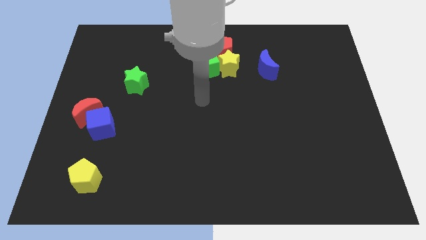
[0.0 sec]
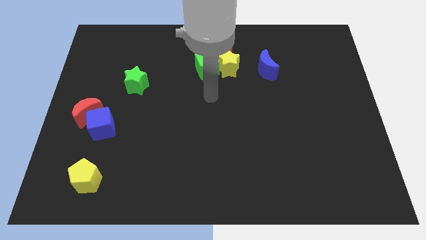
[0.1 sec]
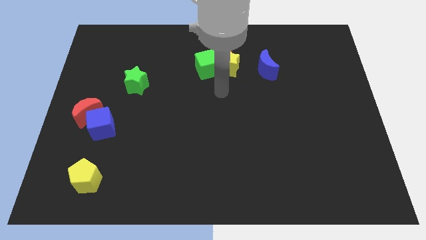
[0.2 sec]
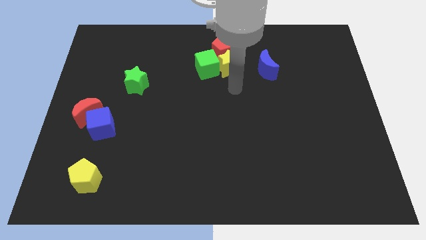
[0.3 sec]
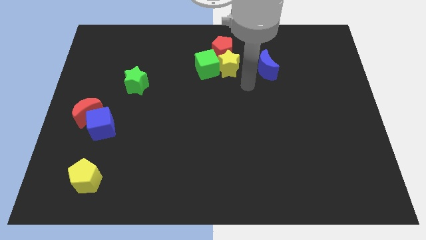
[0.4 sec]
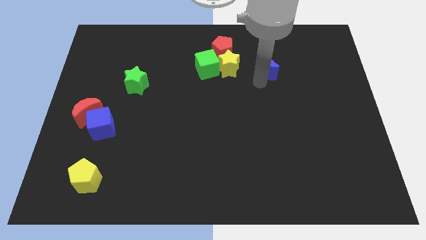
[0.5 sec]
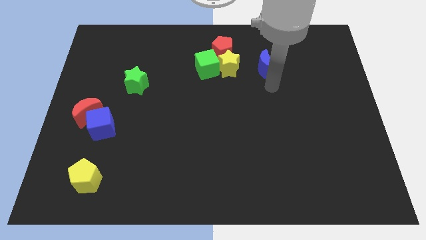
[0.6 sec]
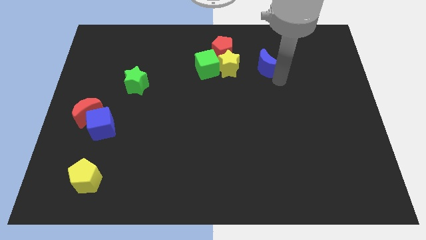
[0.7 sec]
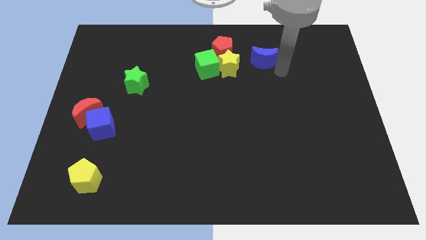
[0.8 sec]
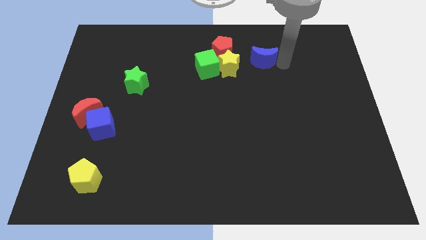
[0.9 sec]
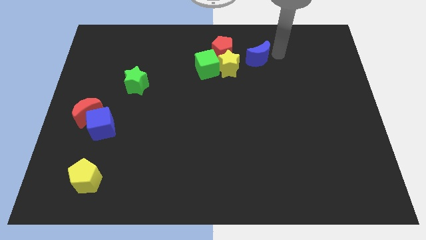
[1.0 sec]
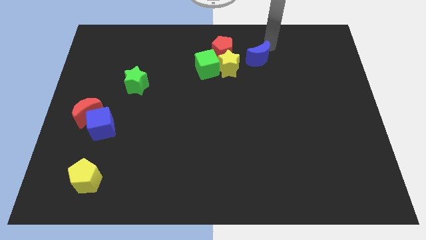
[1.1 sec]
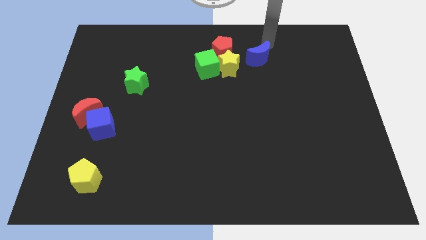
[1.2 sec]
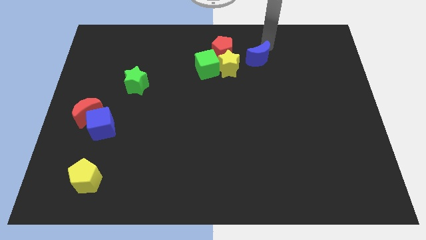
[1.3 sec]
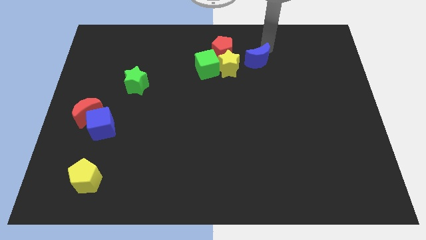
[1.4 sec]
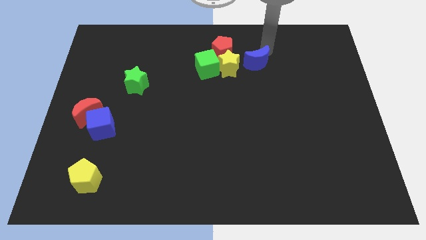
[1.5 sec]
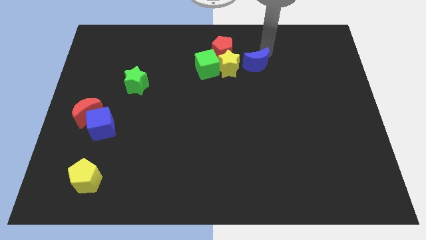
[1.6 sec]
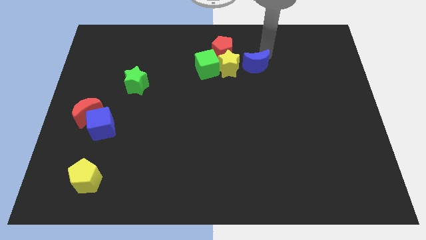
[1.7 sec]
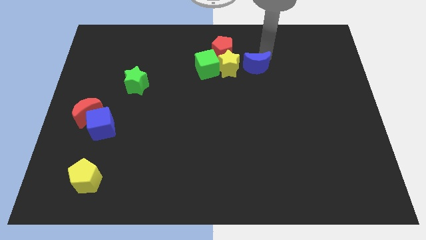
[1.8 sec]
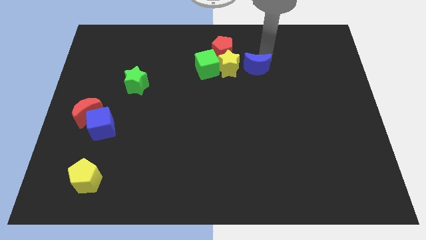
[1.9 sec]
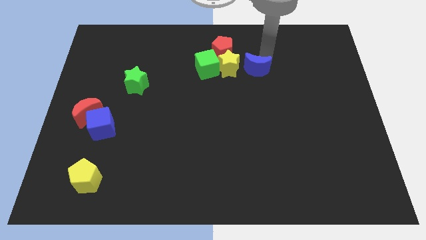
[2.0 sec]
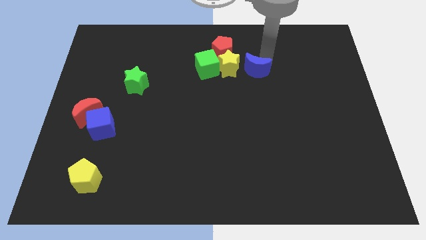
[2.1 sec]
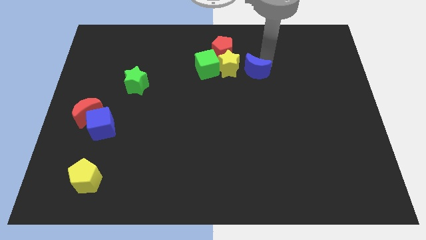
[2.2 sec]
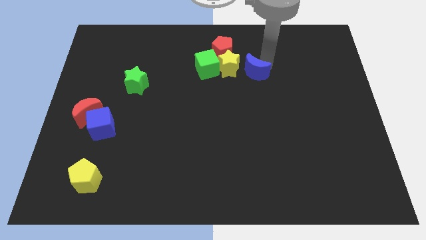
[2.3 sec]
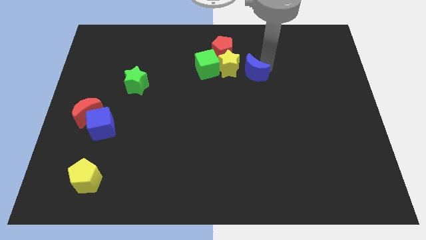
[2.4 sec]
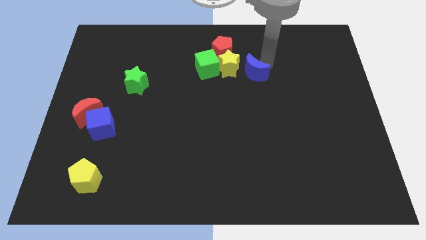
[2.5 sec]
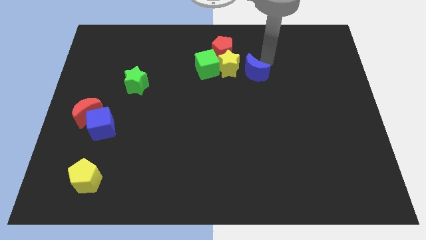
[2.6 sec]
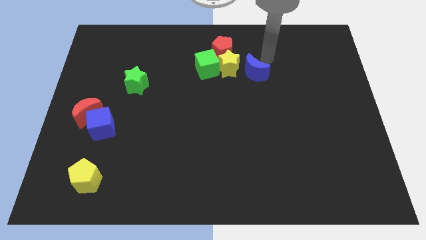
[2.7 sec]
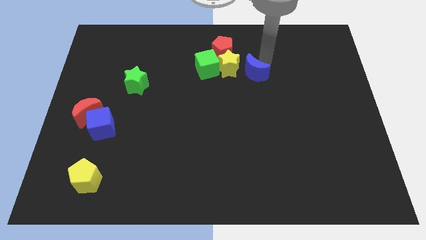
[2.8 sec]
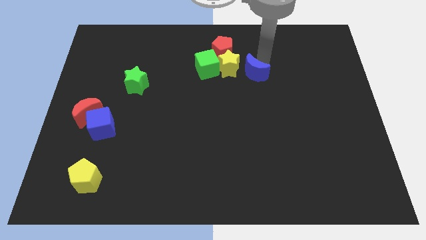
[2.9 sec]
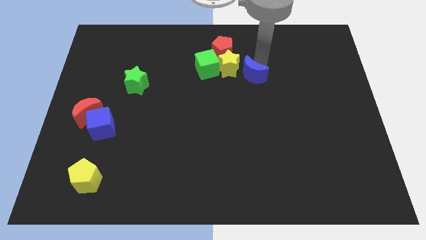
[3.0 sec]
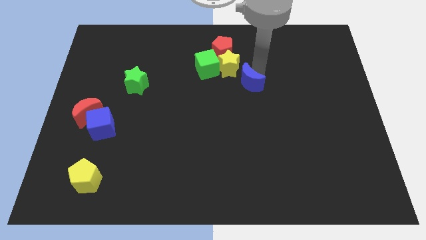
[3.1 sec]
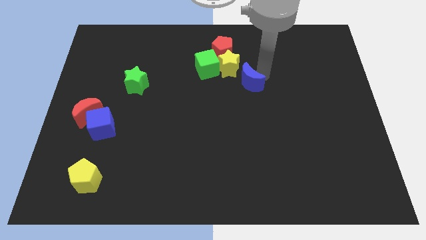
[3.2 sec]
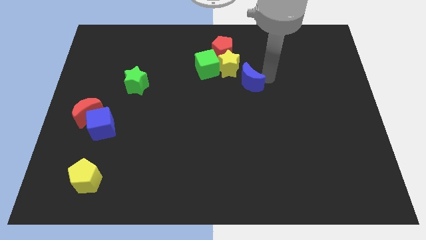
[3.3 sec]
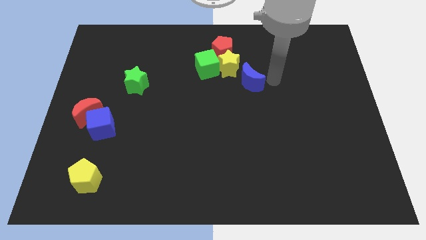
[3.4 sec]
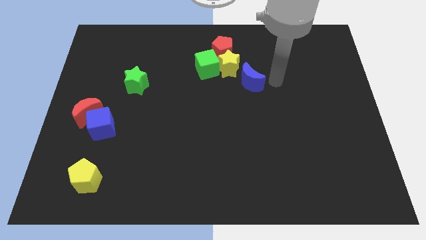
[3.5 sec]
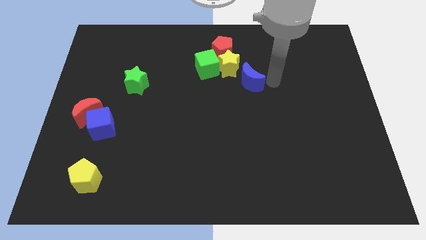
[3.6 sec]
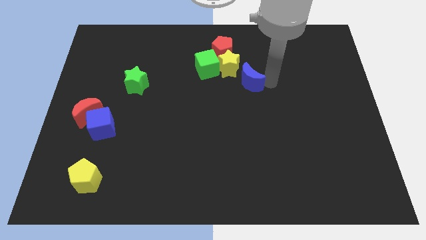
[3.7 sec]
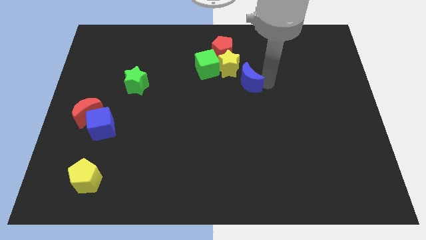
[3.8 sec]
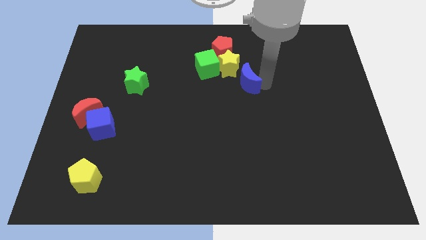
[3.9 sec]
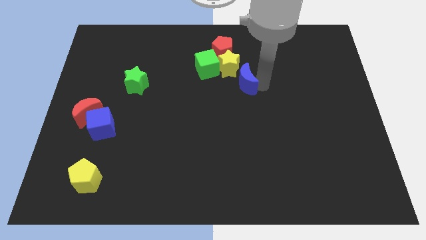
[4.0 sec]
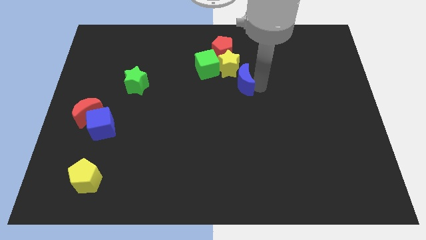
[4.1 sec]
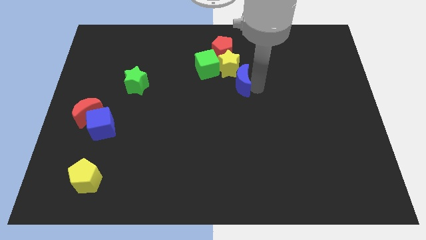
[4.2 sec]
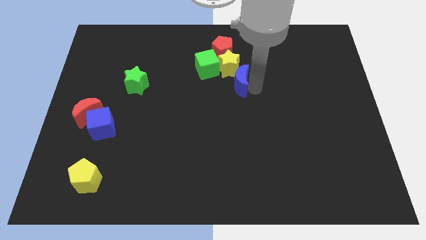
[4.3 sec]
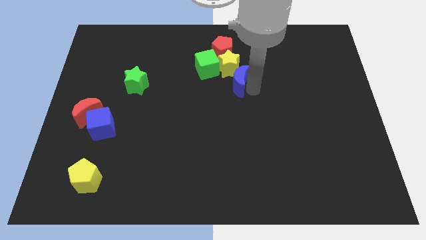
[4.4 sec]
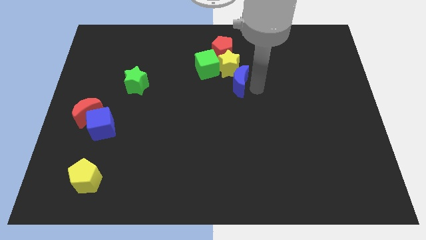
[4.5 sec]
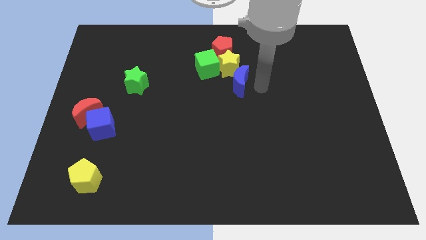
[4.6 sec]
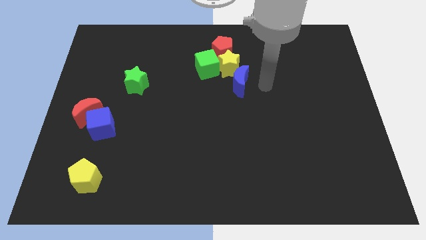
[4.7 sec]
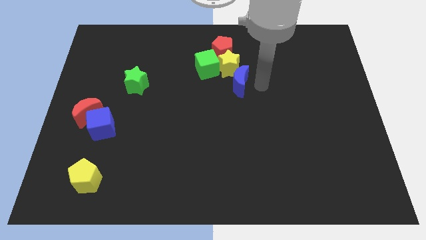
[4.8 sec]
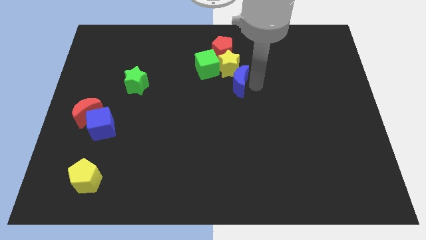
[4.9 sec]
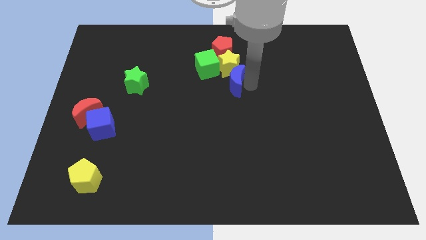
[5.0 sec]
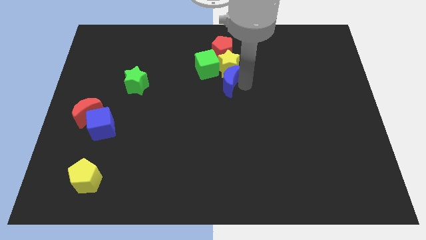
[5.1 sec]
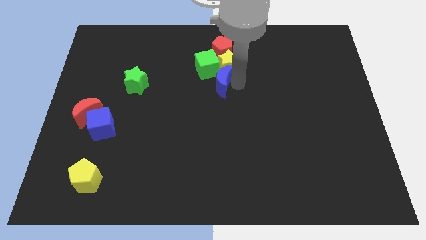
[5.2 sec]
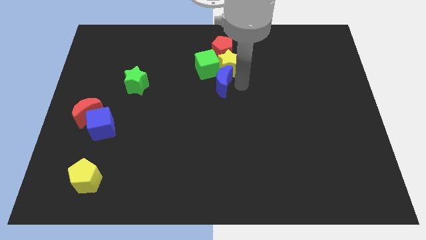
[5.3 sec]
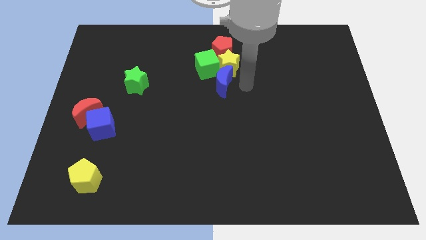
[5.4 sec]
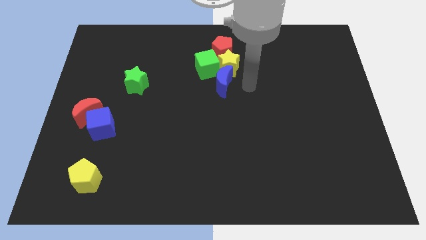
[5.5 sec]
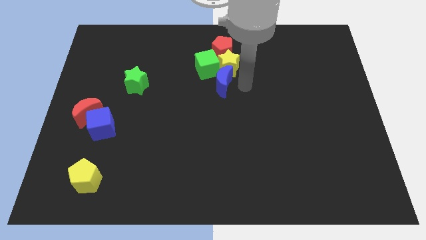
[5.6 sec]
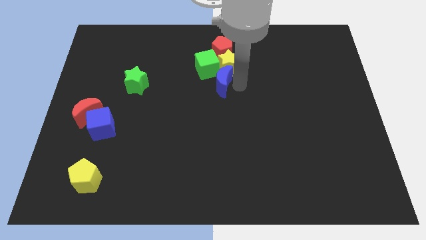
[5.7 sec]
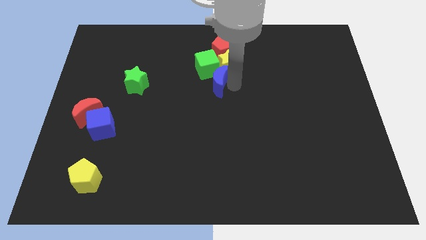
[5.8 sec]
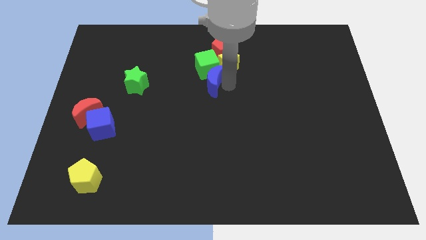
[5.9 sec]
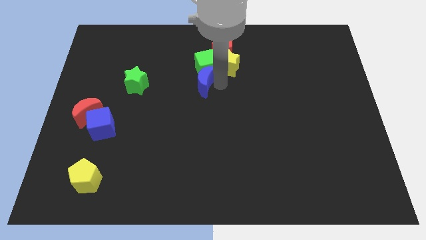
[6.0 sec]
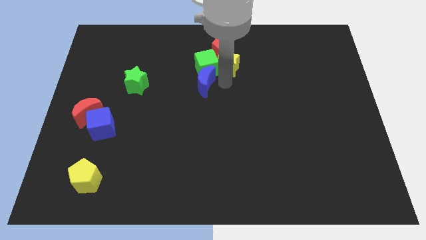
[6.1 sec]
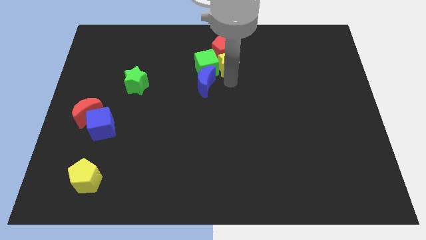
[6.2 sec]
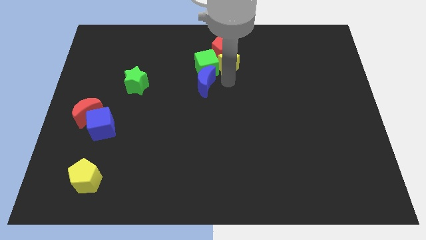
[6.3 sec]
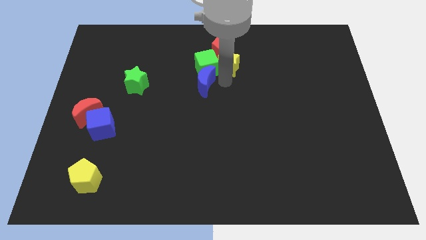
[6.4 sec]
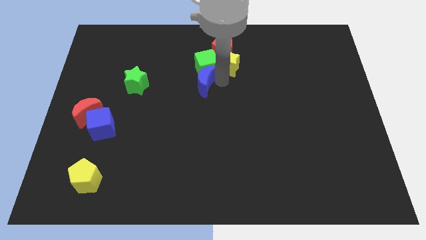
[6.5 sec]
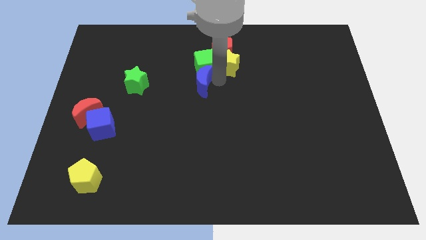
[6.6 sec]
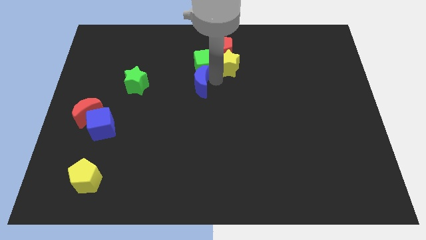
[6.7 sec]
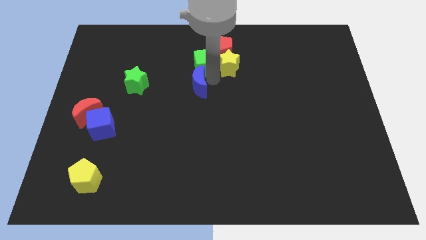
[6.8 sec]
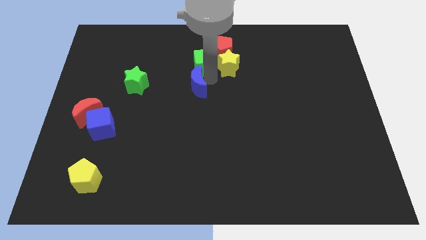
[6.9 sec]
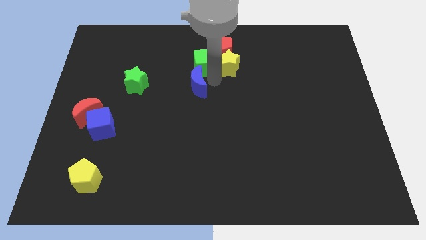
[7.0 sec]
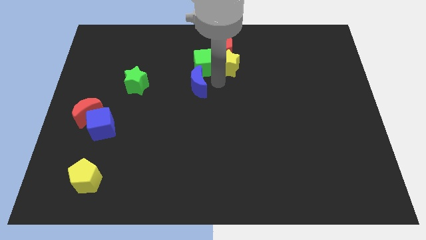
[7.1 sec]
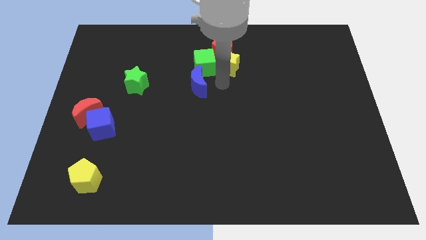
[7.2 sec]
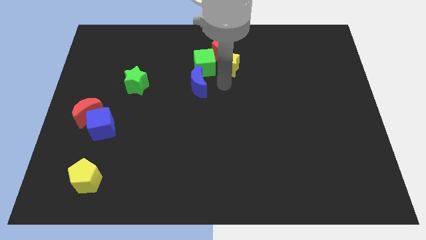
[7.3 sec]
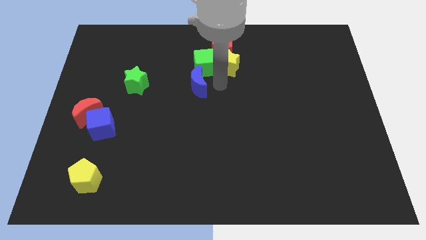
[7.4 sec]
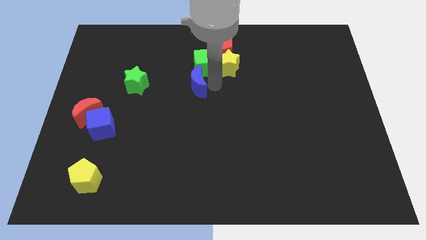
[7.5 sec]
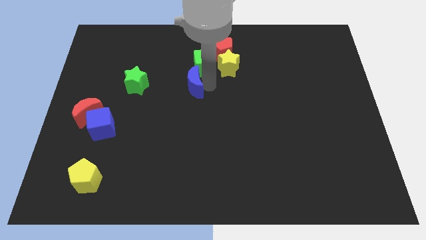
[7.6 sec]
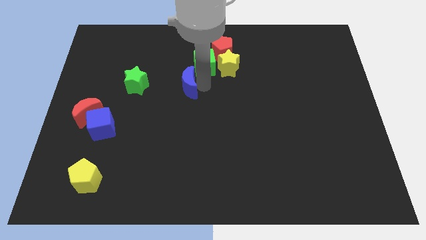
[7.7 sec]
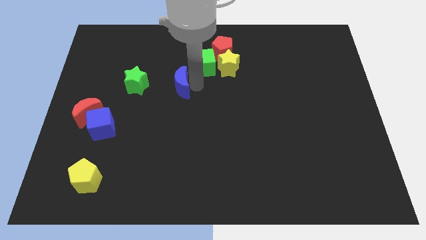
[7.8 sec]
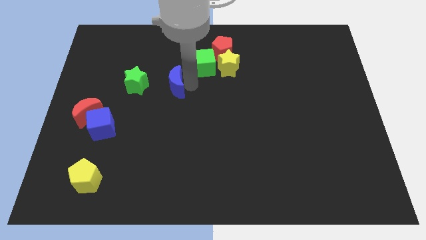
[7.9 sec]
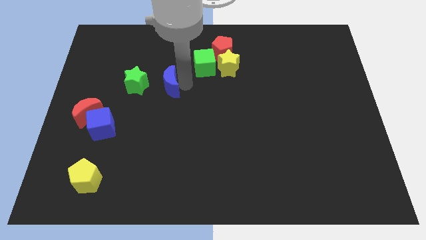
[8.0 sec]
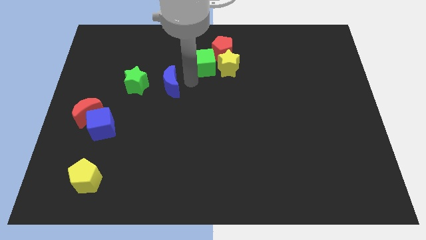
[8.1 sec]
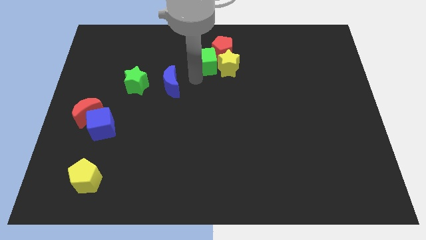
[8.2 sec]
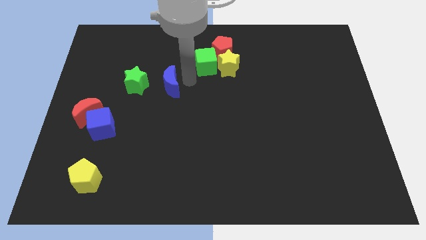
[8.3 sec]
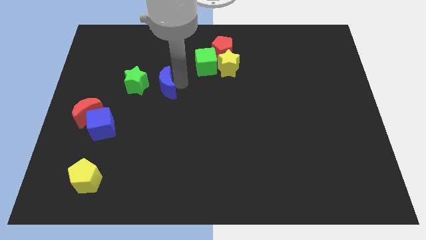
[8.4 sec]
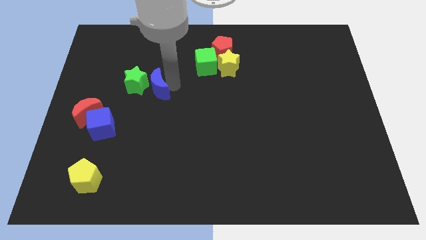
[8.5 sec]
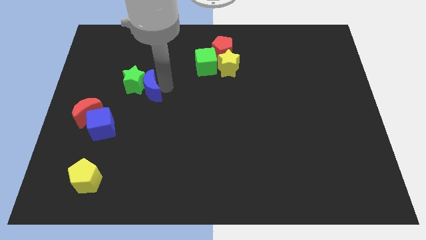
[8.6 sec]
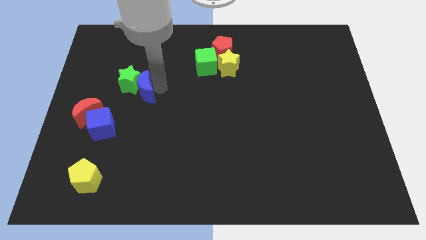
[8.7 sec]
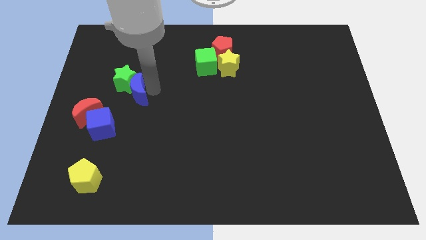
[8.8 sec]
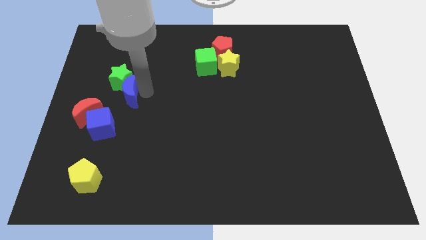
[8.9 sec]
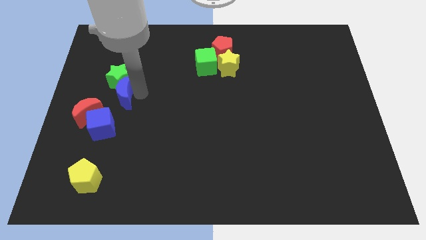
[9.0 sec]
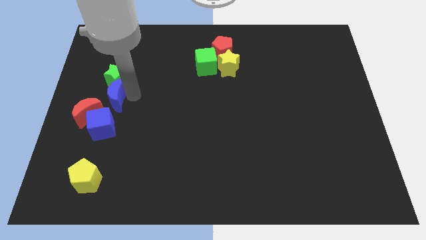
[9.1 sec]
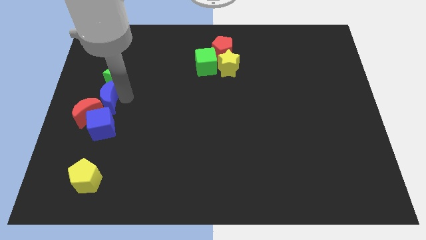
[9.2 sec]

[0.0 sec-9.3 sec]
move the blue moon to the left side of the board
